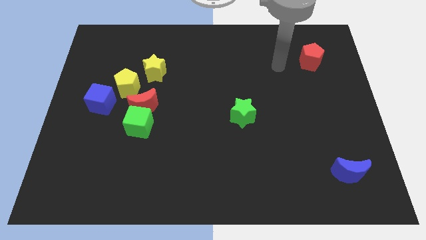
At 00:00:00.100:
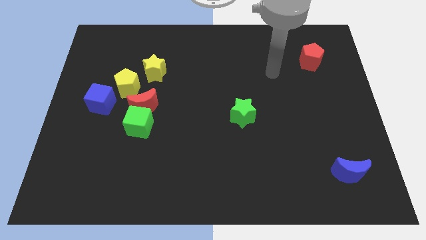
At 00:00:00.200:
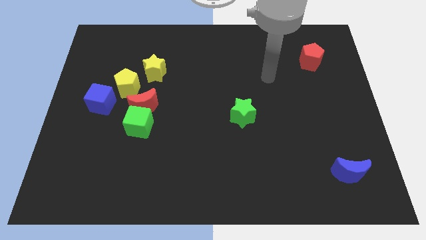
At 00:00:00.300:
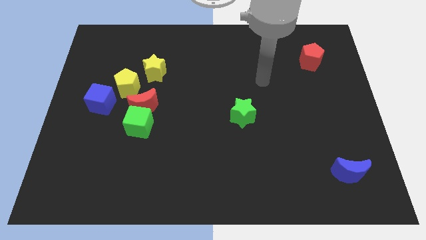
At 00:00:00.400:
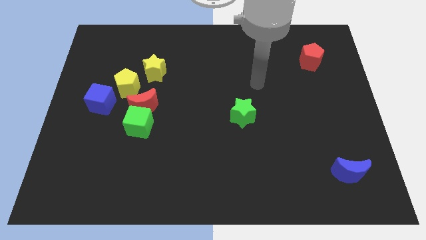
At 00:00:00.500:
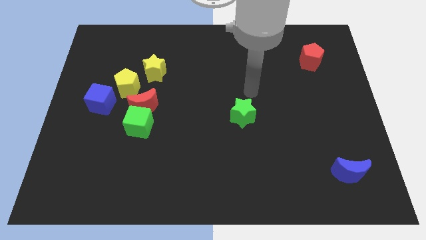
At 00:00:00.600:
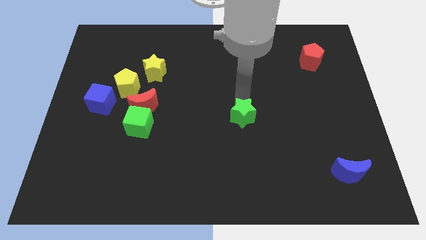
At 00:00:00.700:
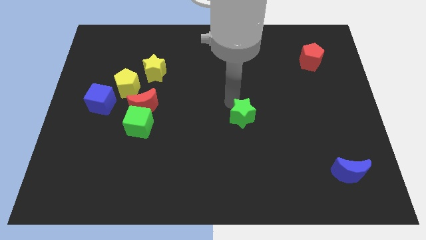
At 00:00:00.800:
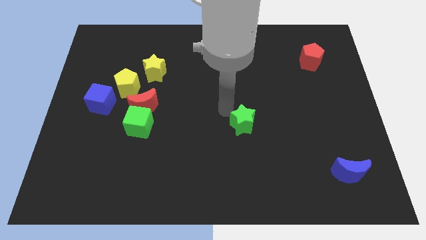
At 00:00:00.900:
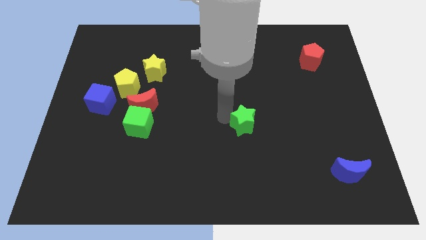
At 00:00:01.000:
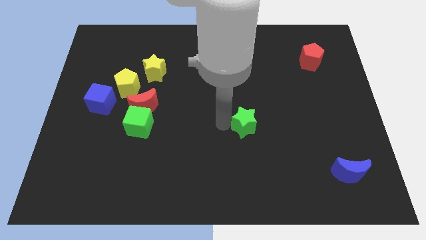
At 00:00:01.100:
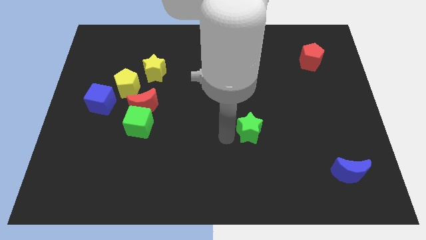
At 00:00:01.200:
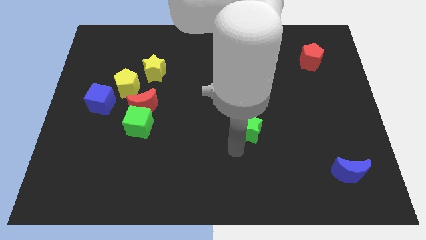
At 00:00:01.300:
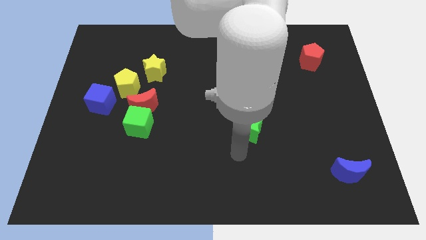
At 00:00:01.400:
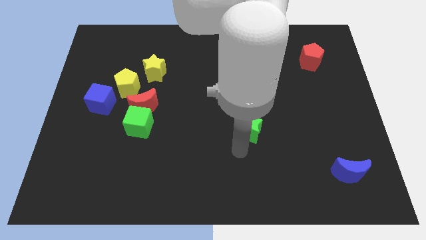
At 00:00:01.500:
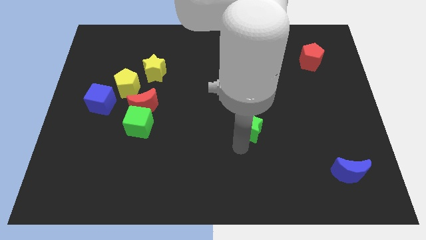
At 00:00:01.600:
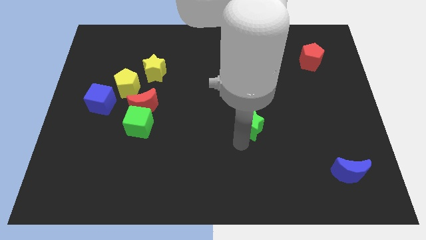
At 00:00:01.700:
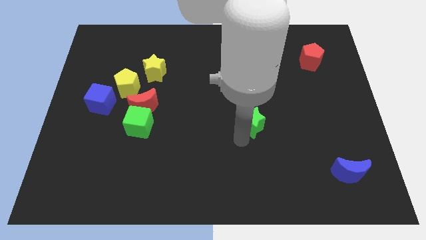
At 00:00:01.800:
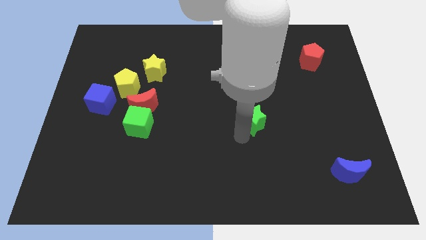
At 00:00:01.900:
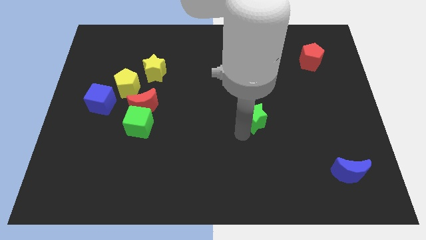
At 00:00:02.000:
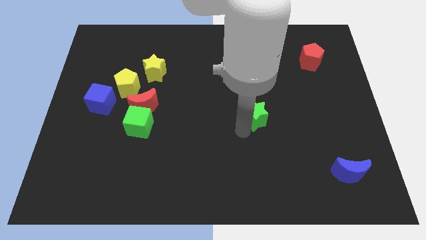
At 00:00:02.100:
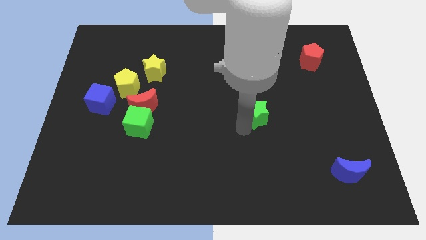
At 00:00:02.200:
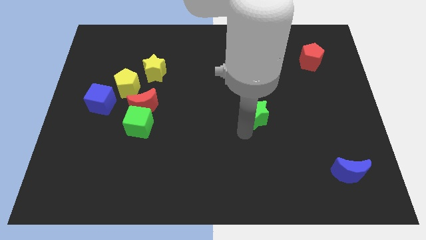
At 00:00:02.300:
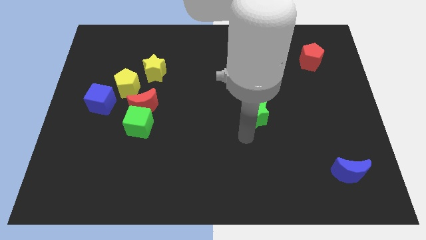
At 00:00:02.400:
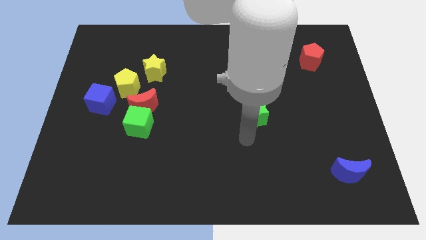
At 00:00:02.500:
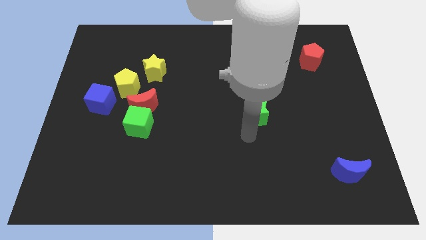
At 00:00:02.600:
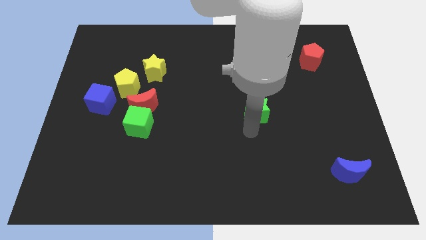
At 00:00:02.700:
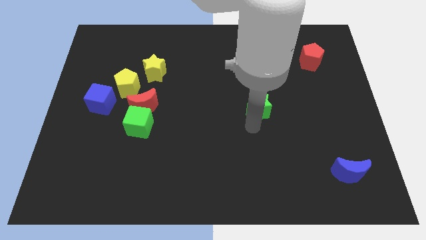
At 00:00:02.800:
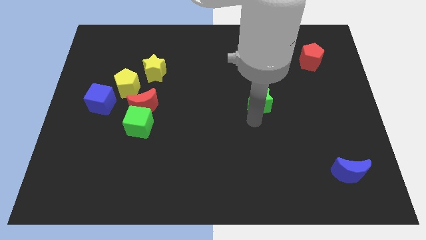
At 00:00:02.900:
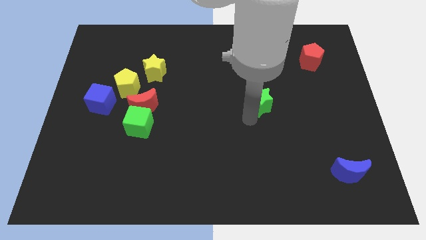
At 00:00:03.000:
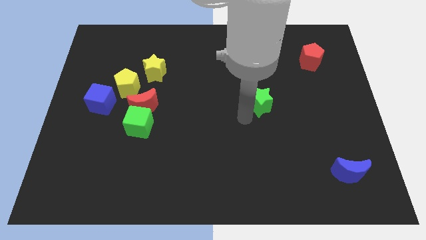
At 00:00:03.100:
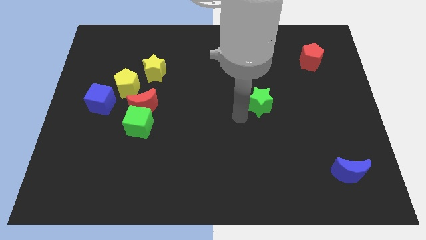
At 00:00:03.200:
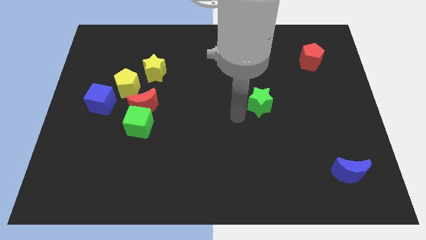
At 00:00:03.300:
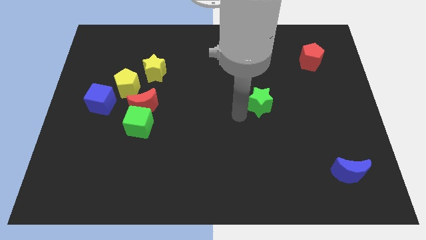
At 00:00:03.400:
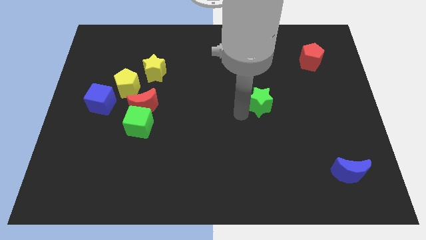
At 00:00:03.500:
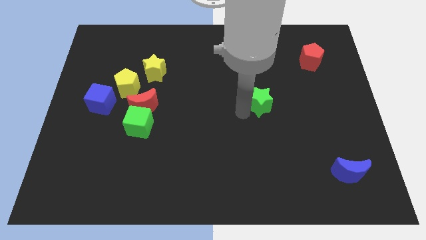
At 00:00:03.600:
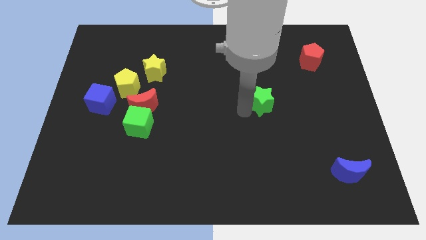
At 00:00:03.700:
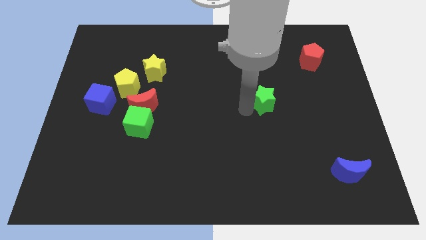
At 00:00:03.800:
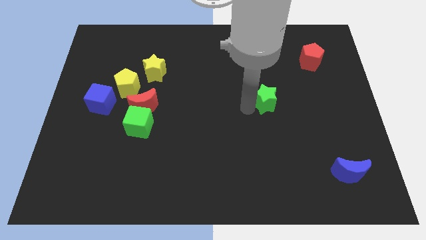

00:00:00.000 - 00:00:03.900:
push the green star upwards and then to the right a little

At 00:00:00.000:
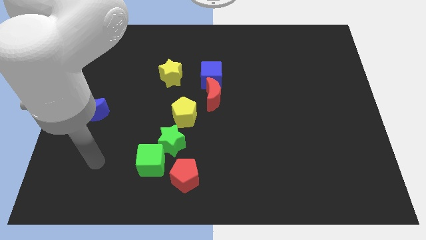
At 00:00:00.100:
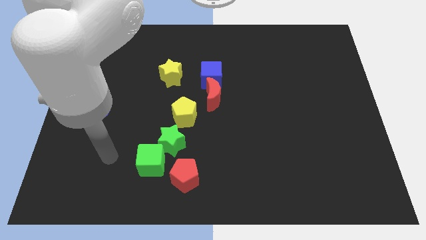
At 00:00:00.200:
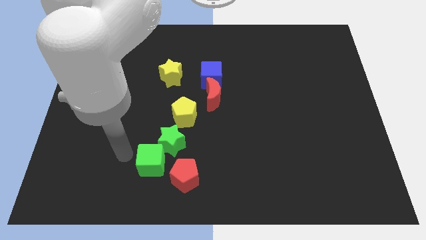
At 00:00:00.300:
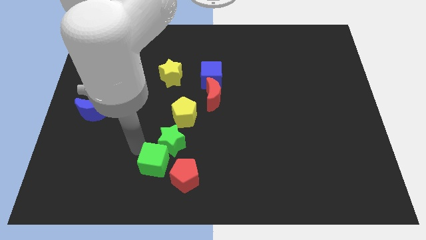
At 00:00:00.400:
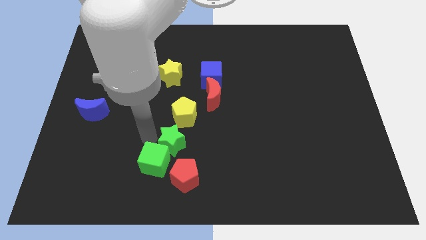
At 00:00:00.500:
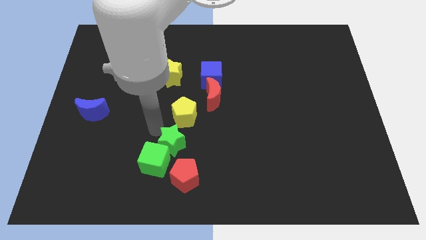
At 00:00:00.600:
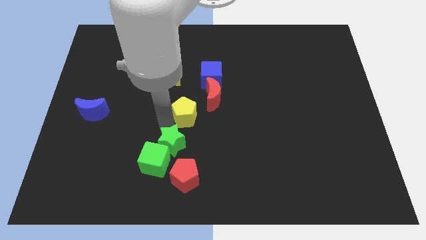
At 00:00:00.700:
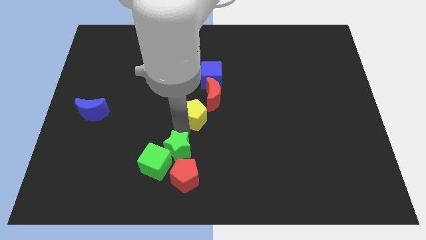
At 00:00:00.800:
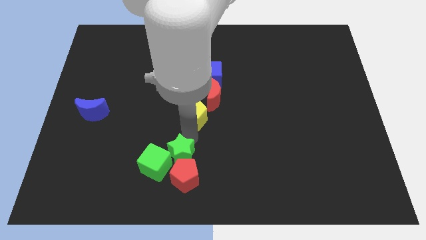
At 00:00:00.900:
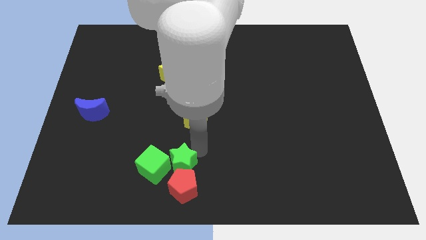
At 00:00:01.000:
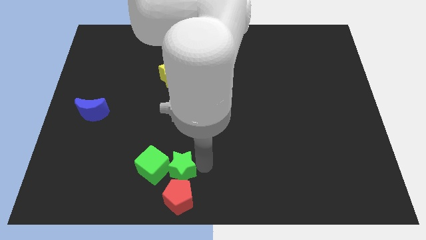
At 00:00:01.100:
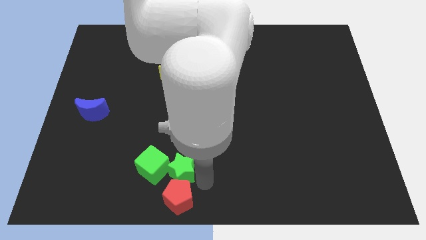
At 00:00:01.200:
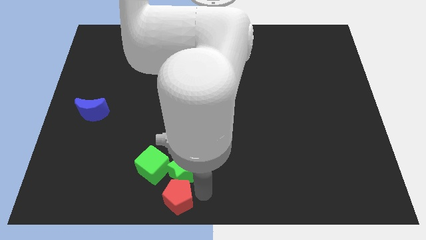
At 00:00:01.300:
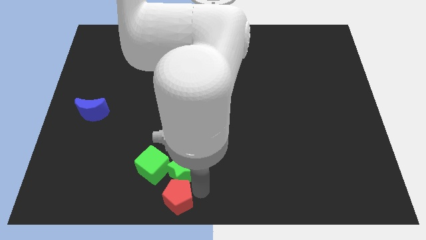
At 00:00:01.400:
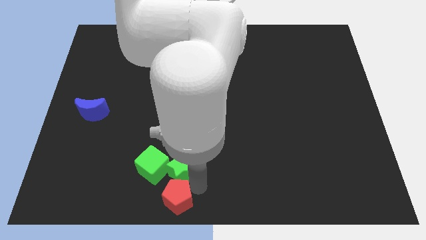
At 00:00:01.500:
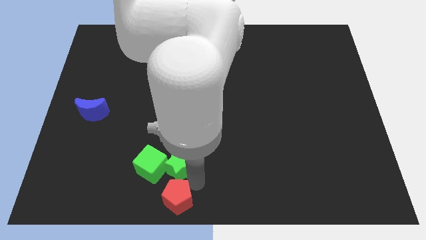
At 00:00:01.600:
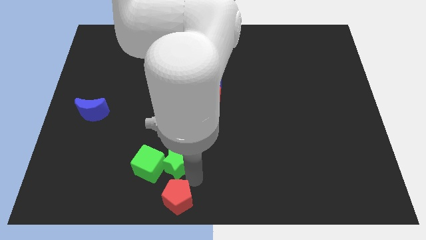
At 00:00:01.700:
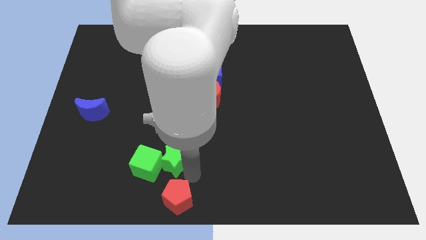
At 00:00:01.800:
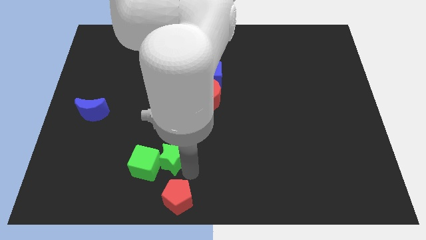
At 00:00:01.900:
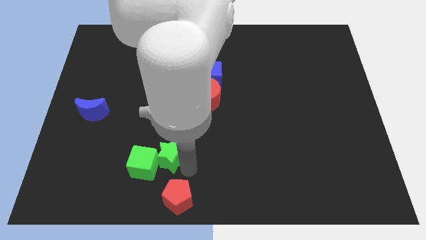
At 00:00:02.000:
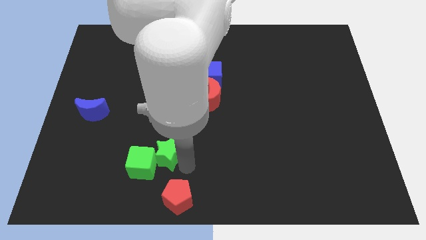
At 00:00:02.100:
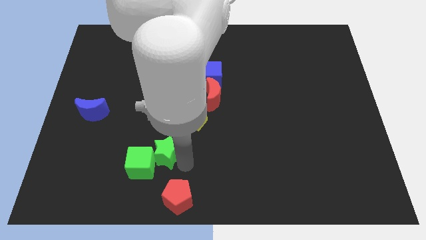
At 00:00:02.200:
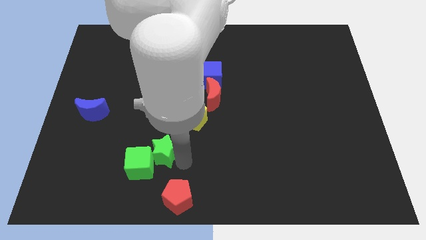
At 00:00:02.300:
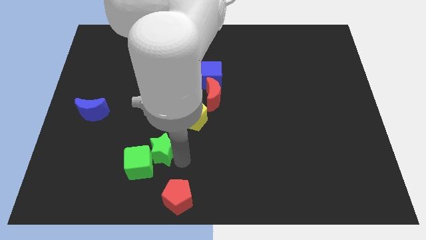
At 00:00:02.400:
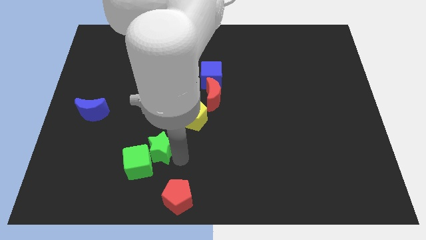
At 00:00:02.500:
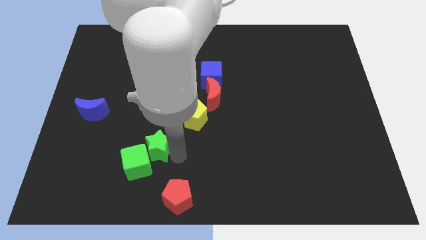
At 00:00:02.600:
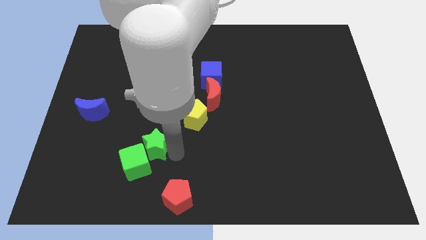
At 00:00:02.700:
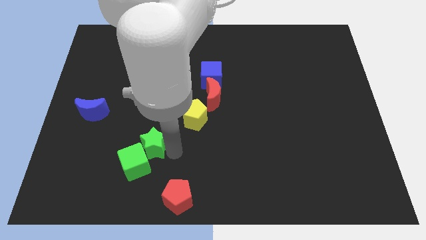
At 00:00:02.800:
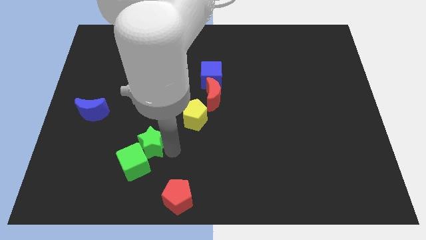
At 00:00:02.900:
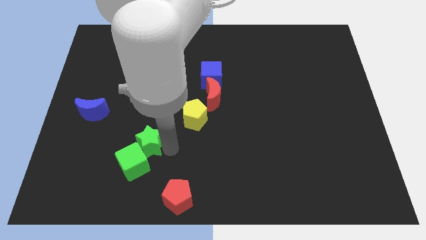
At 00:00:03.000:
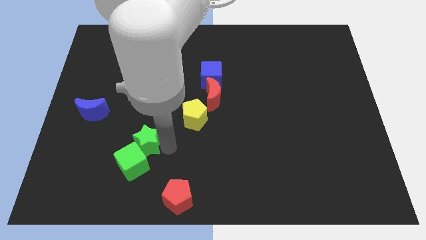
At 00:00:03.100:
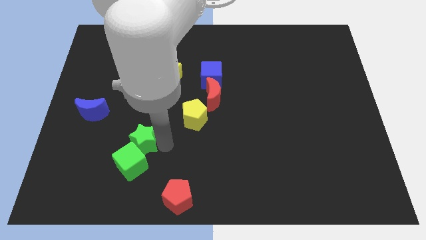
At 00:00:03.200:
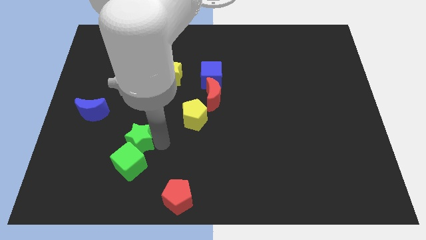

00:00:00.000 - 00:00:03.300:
slide the green star a bit left

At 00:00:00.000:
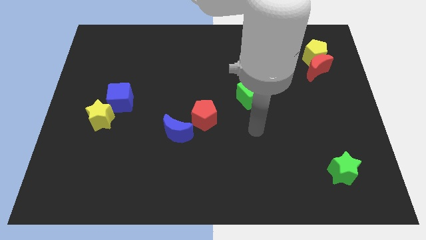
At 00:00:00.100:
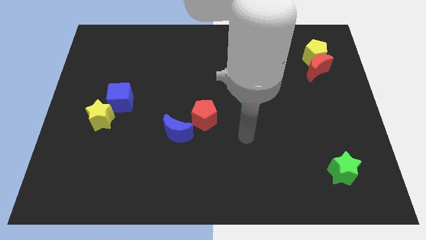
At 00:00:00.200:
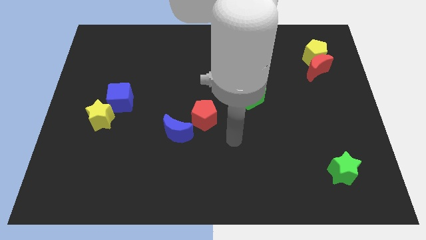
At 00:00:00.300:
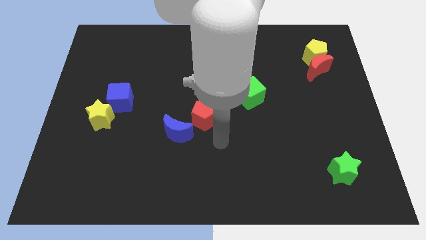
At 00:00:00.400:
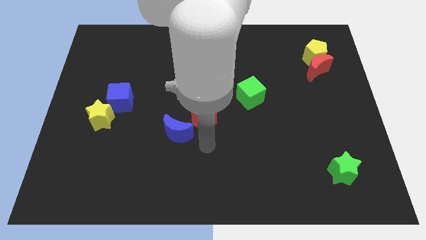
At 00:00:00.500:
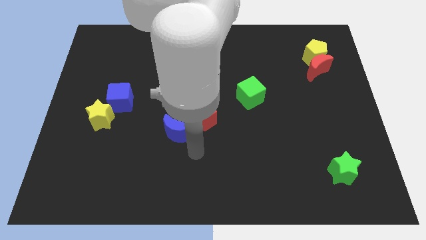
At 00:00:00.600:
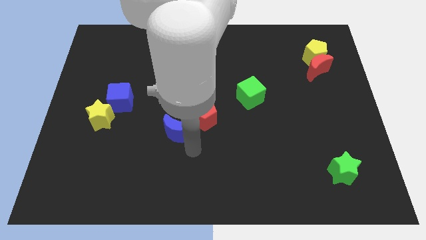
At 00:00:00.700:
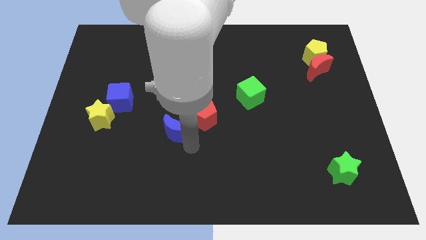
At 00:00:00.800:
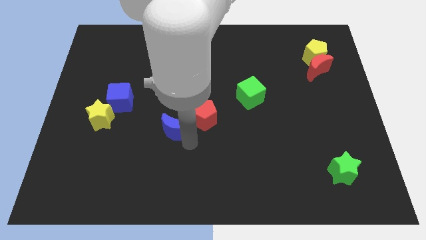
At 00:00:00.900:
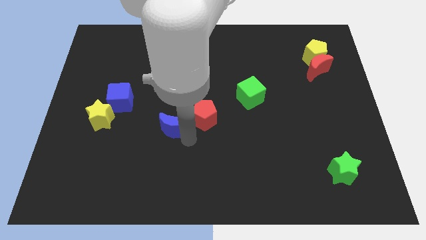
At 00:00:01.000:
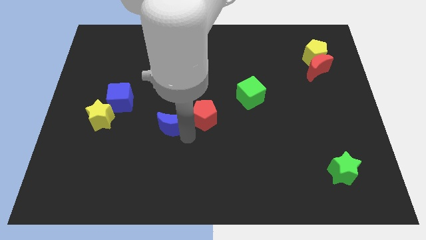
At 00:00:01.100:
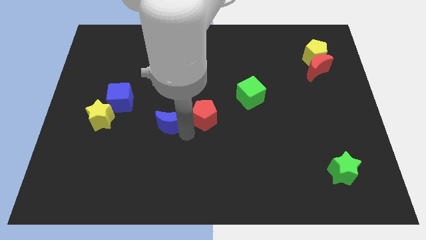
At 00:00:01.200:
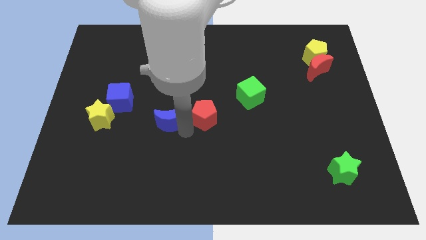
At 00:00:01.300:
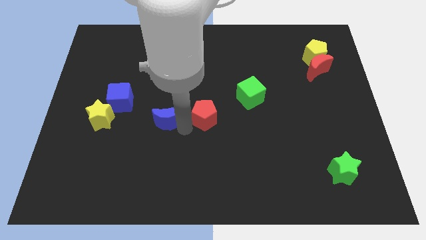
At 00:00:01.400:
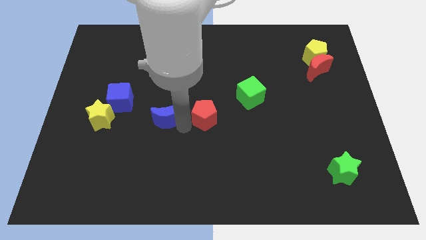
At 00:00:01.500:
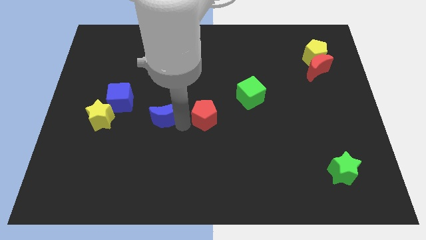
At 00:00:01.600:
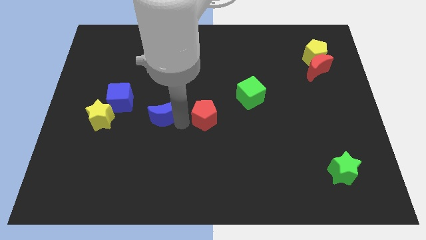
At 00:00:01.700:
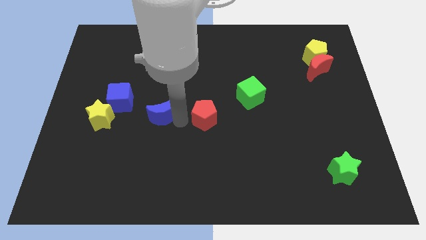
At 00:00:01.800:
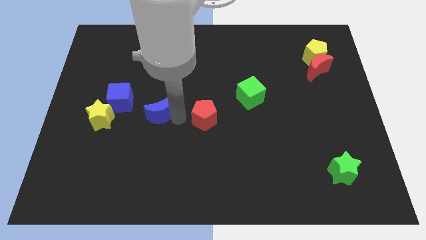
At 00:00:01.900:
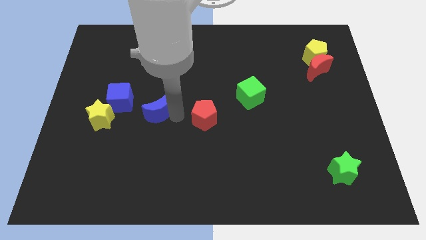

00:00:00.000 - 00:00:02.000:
slide the blue moon up and to the left diagonally a little
